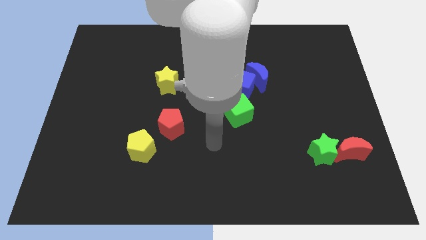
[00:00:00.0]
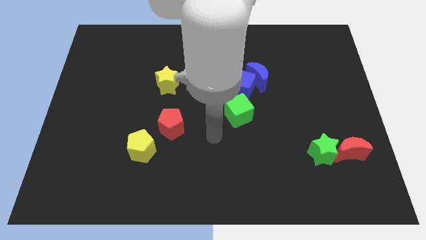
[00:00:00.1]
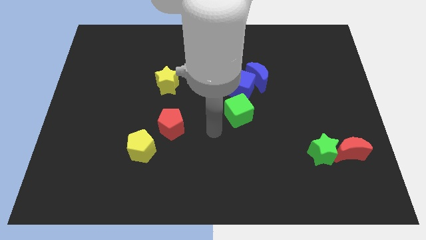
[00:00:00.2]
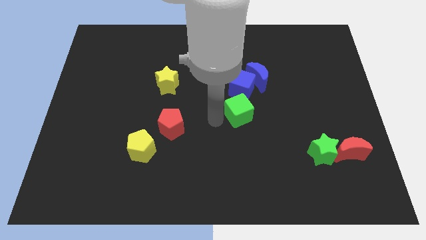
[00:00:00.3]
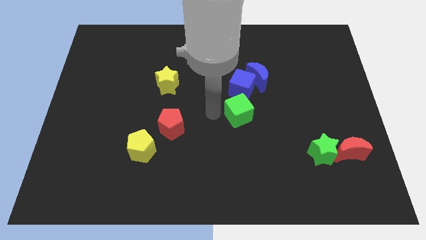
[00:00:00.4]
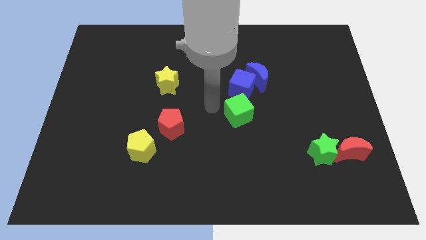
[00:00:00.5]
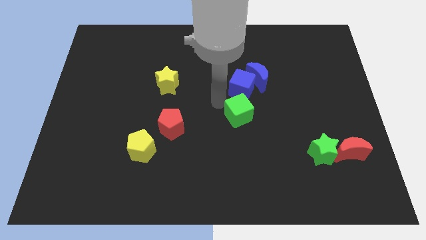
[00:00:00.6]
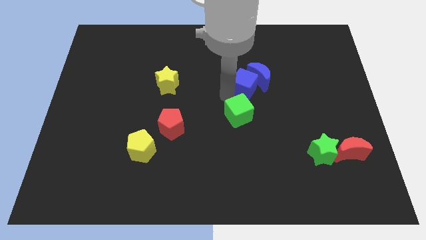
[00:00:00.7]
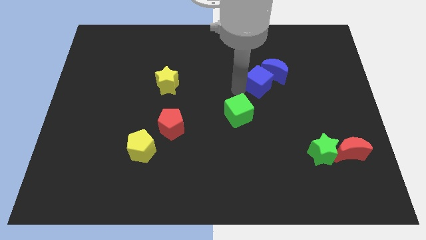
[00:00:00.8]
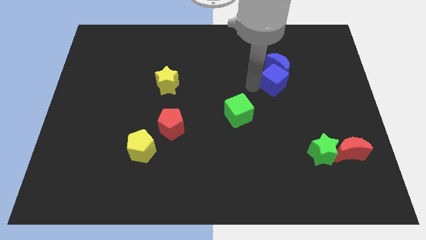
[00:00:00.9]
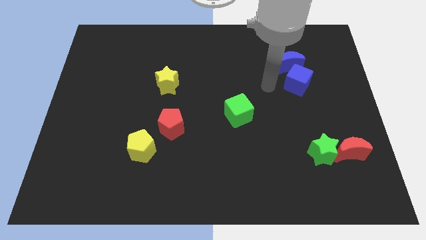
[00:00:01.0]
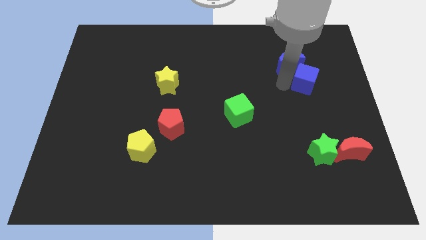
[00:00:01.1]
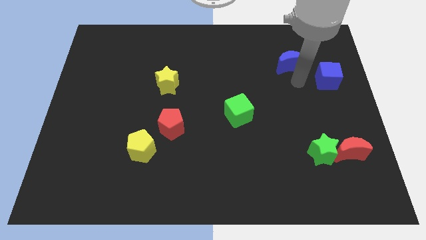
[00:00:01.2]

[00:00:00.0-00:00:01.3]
move the blue moon away from the blue cube

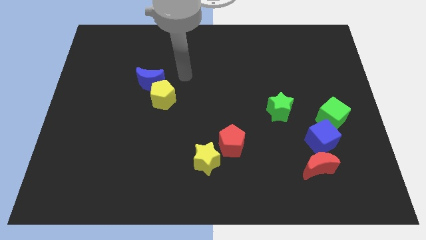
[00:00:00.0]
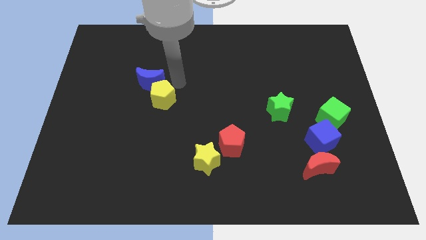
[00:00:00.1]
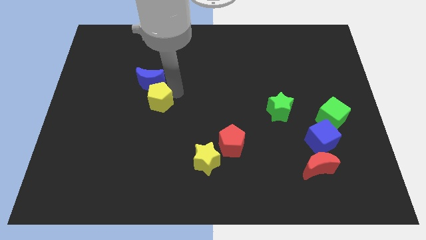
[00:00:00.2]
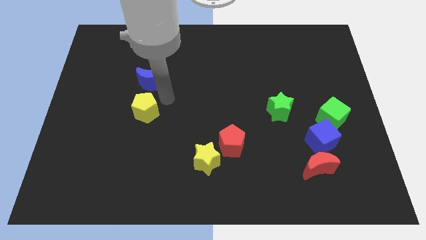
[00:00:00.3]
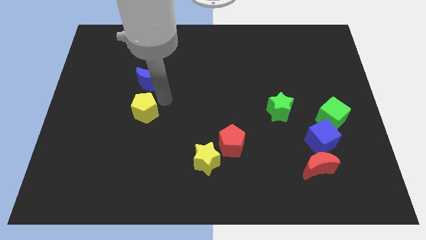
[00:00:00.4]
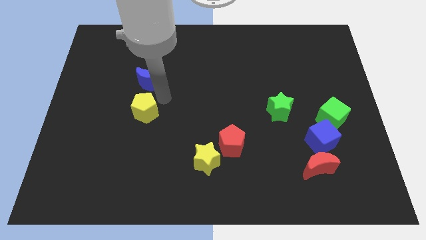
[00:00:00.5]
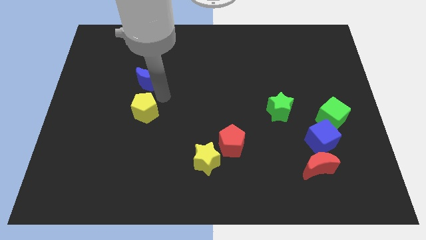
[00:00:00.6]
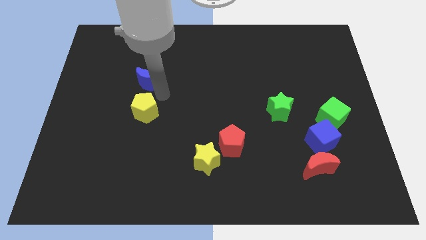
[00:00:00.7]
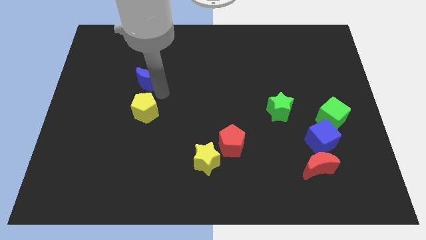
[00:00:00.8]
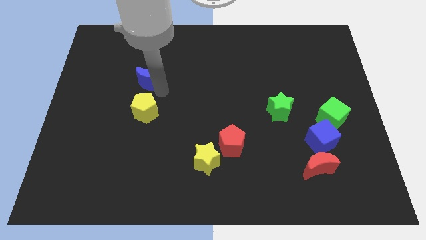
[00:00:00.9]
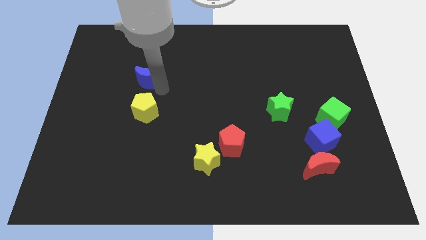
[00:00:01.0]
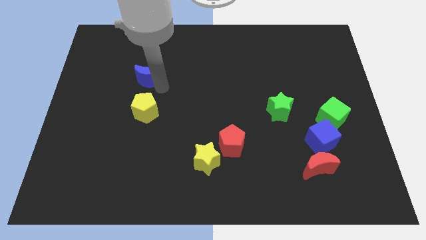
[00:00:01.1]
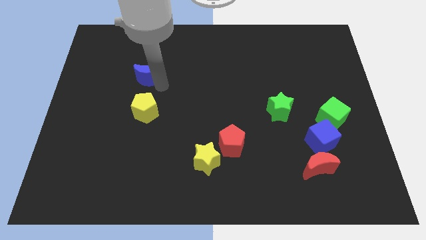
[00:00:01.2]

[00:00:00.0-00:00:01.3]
separate the blue moon from the yellow pentagon

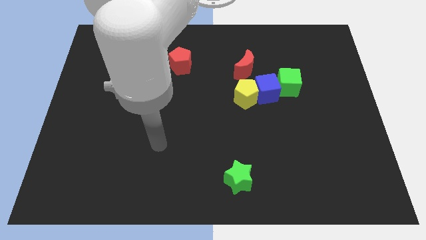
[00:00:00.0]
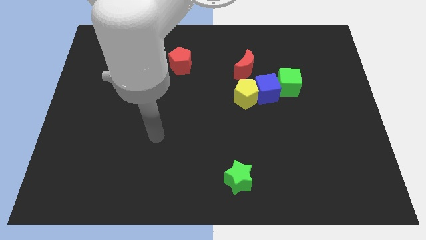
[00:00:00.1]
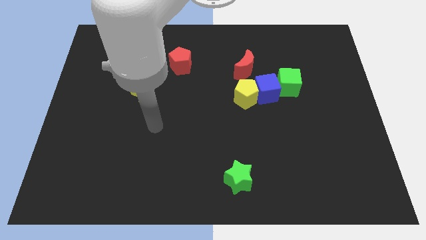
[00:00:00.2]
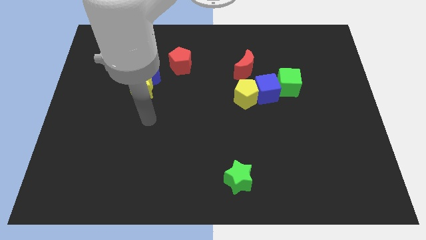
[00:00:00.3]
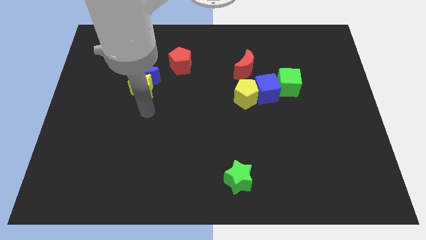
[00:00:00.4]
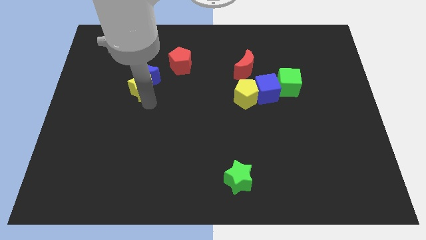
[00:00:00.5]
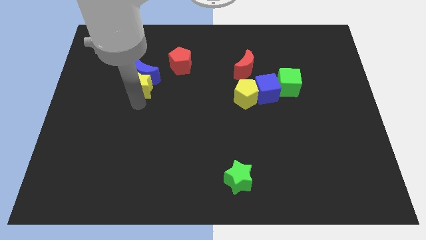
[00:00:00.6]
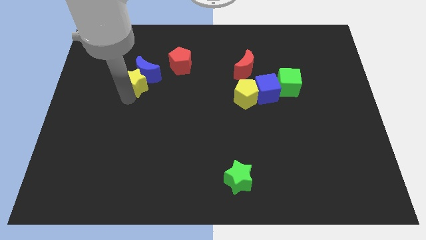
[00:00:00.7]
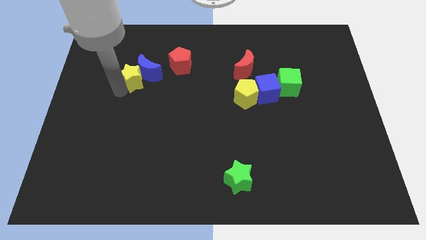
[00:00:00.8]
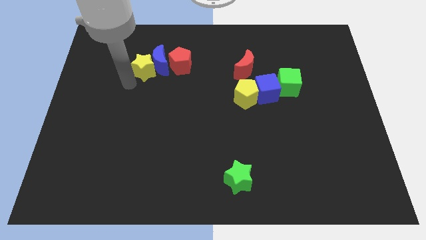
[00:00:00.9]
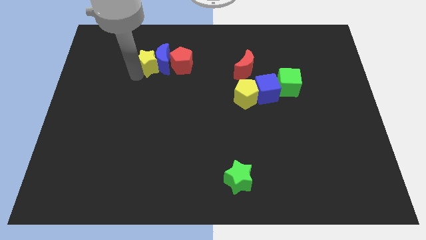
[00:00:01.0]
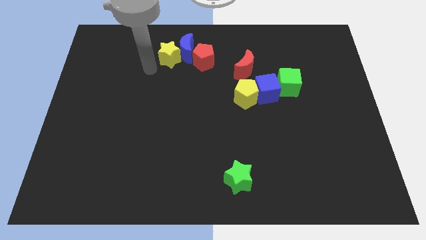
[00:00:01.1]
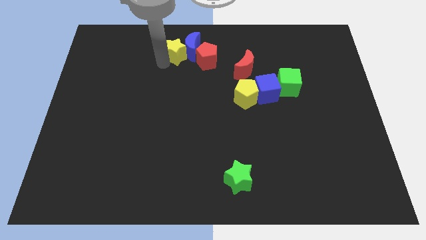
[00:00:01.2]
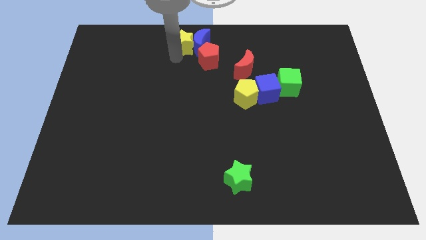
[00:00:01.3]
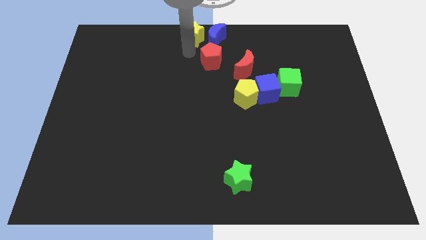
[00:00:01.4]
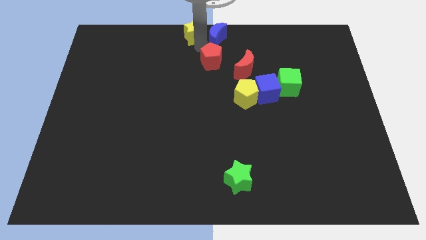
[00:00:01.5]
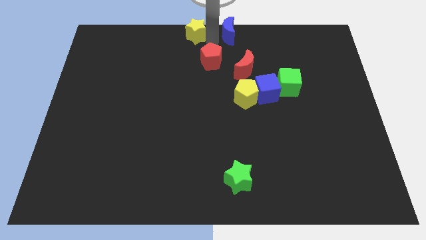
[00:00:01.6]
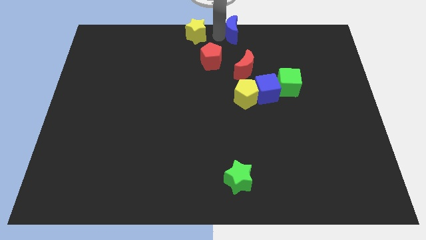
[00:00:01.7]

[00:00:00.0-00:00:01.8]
move the yellow star away from the blue moon

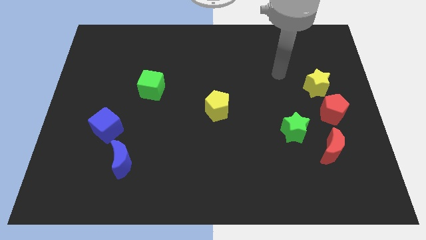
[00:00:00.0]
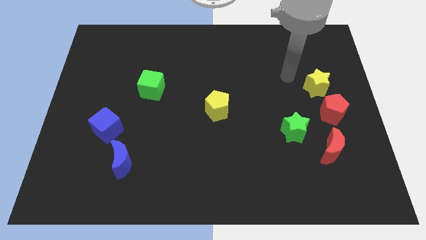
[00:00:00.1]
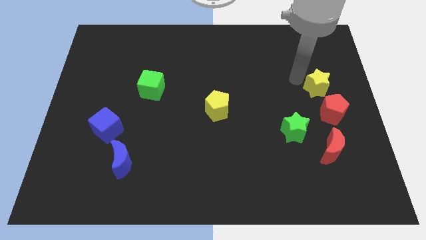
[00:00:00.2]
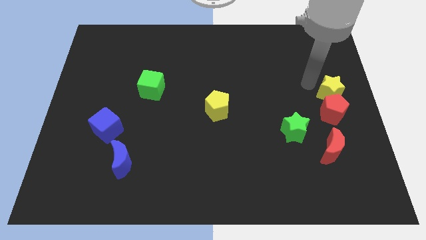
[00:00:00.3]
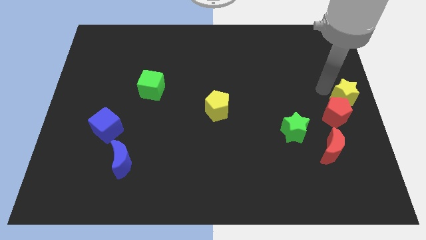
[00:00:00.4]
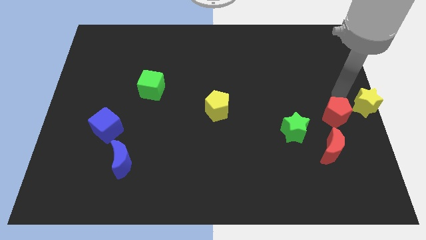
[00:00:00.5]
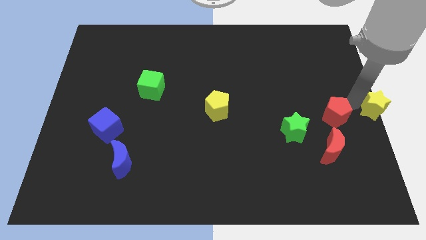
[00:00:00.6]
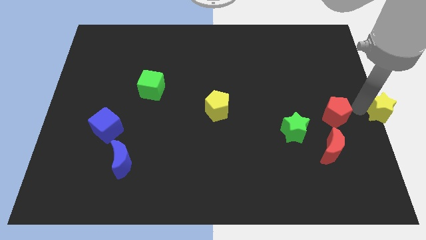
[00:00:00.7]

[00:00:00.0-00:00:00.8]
separate the red pentagon from the yellow star

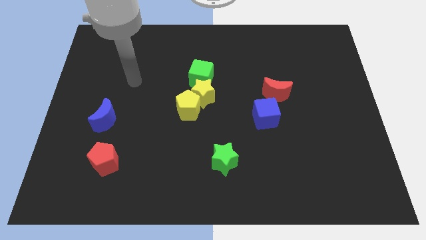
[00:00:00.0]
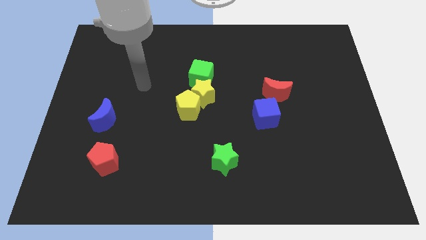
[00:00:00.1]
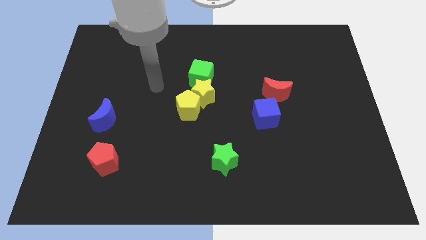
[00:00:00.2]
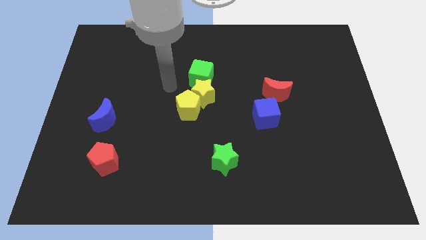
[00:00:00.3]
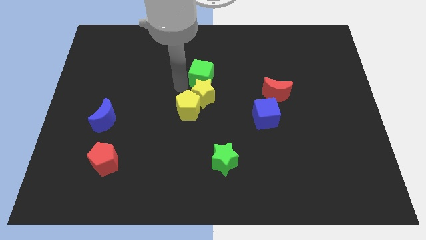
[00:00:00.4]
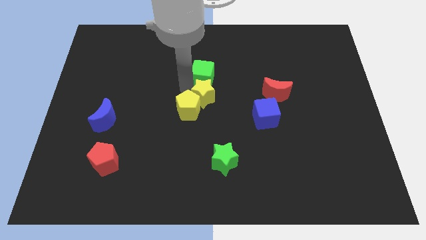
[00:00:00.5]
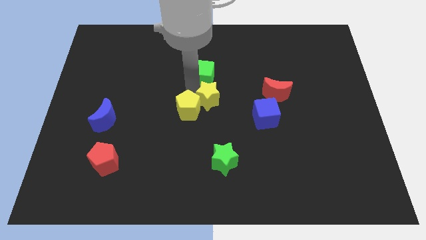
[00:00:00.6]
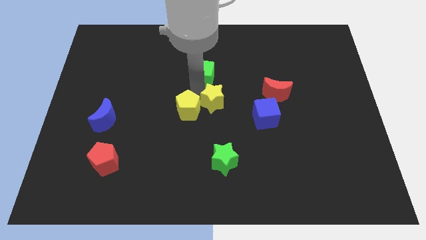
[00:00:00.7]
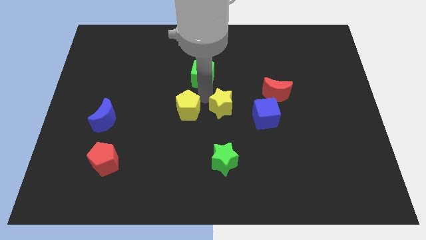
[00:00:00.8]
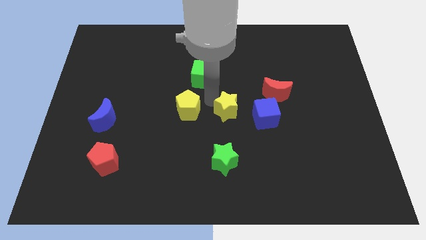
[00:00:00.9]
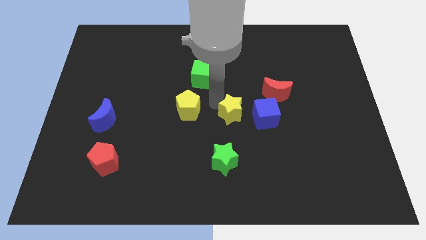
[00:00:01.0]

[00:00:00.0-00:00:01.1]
move the yellow star away from the yellow pentagon and green cube

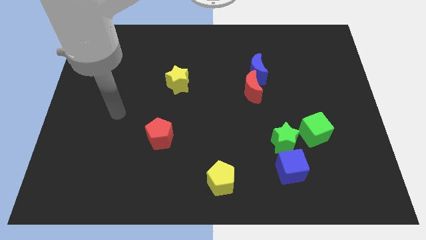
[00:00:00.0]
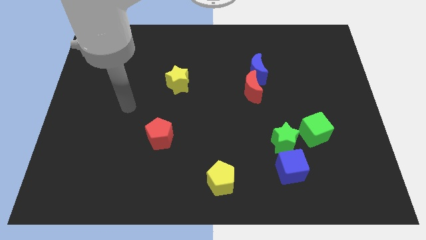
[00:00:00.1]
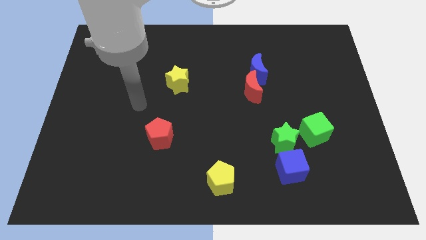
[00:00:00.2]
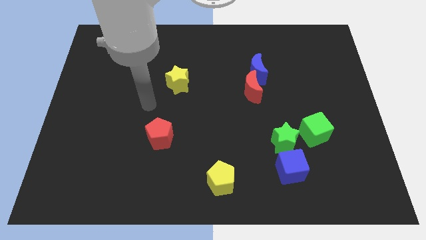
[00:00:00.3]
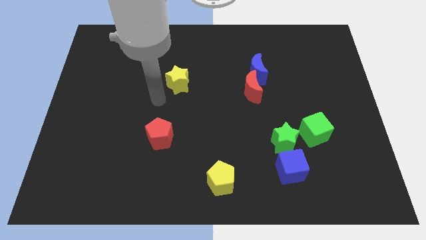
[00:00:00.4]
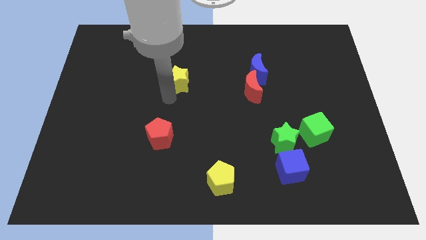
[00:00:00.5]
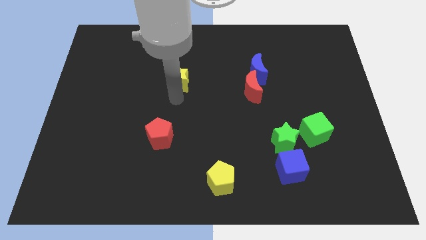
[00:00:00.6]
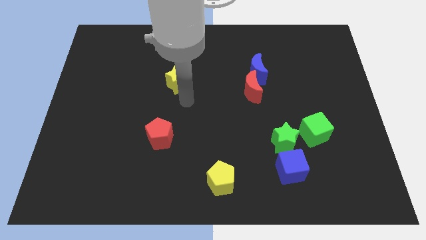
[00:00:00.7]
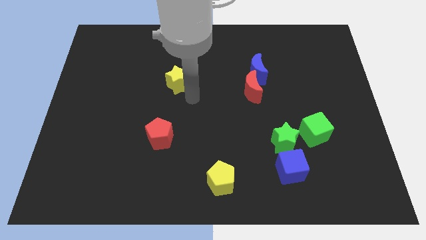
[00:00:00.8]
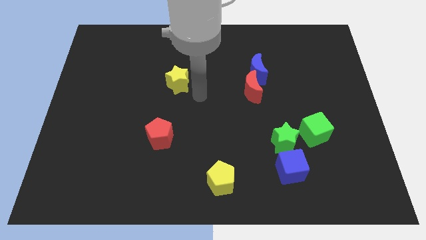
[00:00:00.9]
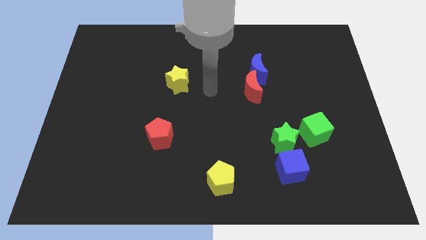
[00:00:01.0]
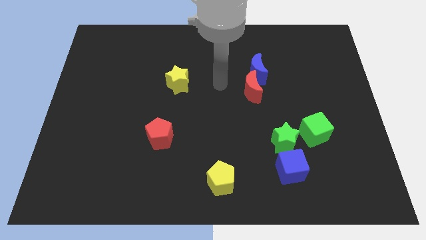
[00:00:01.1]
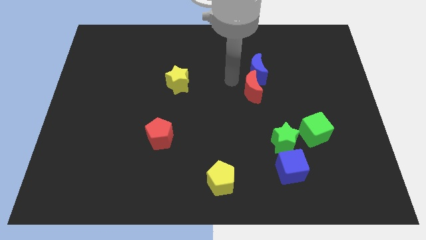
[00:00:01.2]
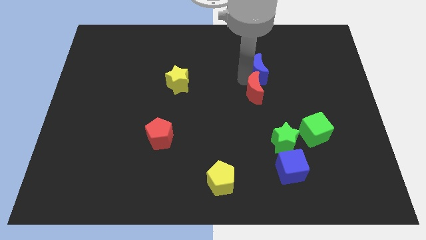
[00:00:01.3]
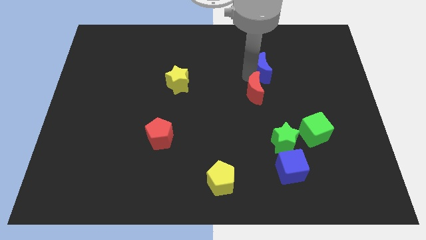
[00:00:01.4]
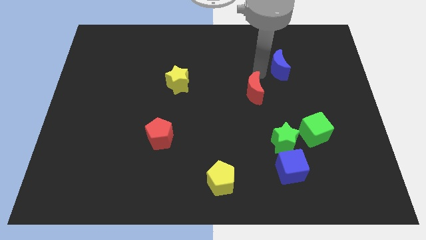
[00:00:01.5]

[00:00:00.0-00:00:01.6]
pull the red moon apart from the blue moon

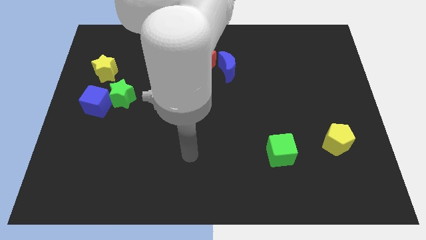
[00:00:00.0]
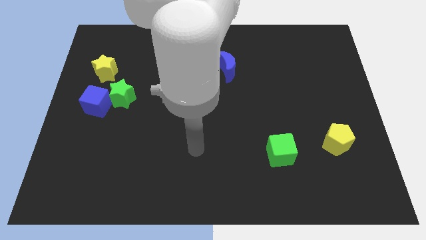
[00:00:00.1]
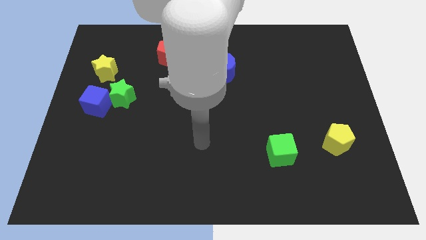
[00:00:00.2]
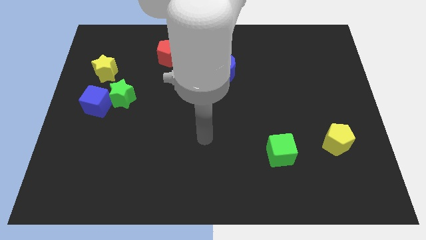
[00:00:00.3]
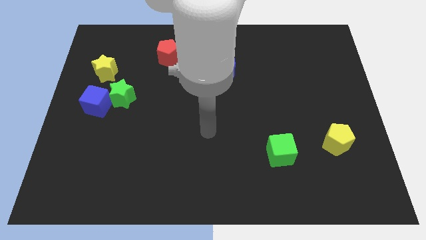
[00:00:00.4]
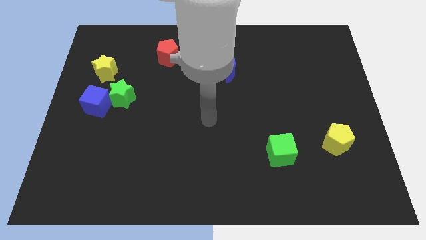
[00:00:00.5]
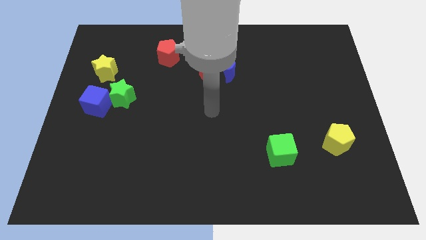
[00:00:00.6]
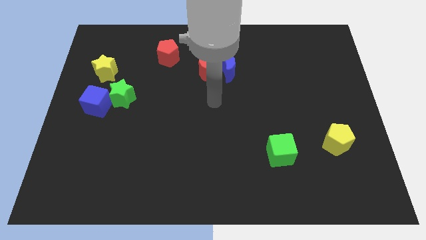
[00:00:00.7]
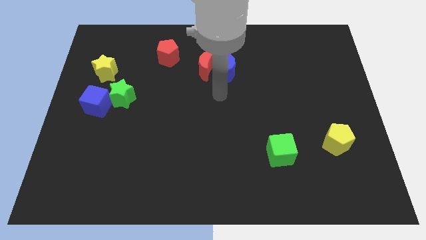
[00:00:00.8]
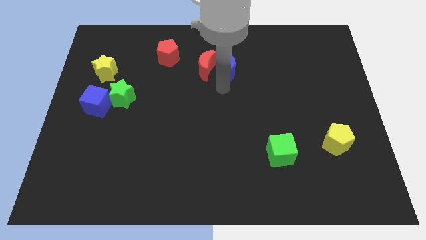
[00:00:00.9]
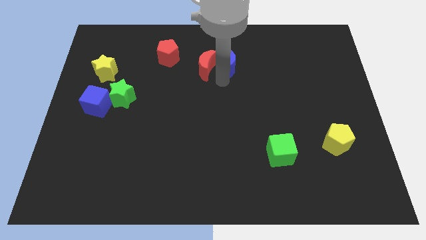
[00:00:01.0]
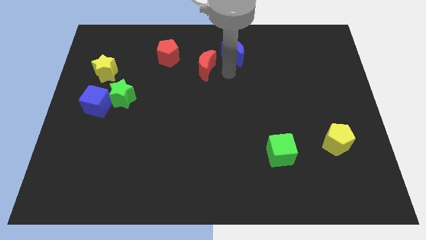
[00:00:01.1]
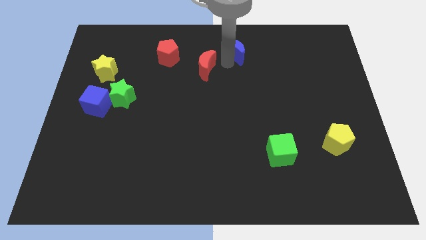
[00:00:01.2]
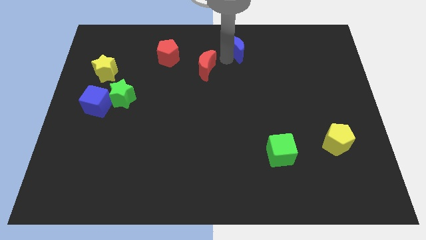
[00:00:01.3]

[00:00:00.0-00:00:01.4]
separate the red moon from the blue moon
